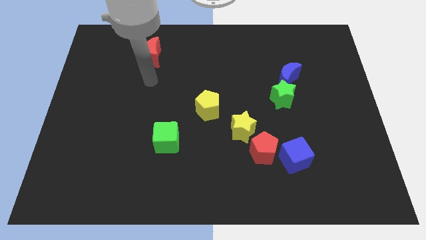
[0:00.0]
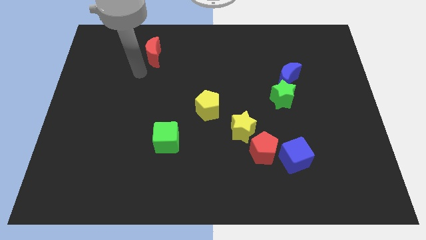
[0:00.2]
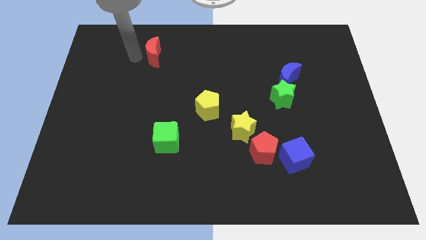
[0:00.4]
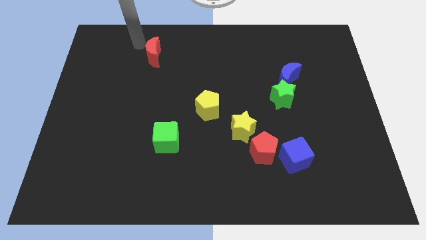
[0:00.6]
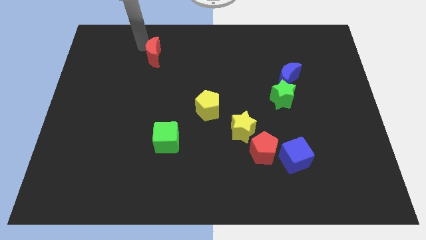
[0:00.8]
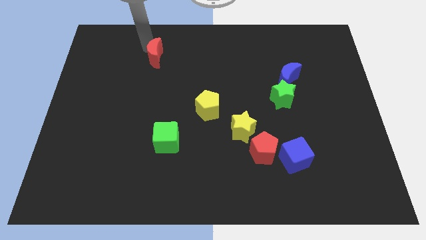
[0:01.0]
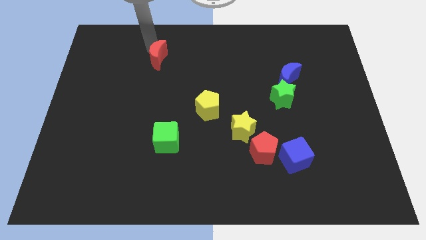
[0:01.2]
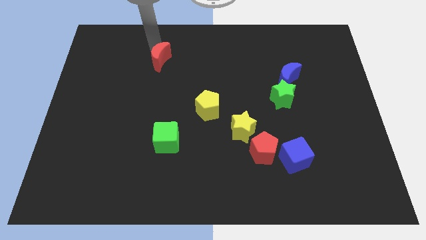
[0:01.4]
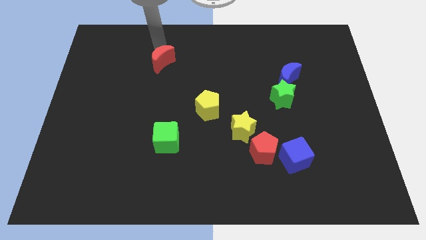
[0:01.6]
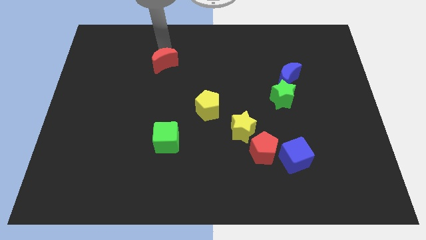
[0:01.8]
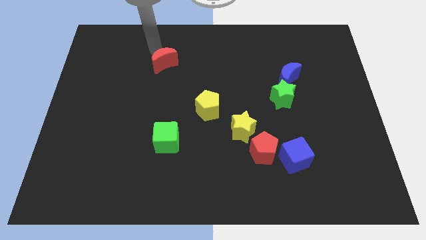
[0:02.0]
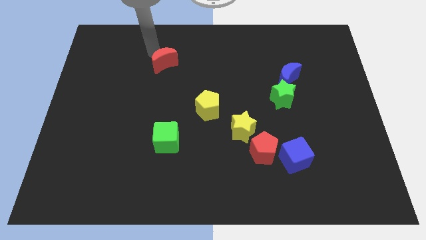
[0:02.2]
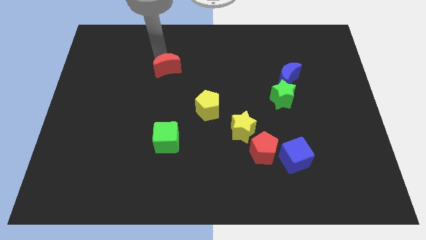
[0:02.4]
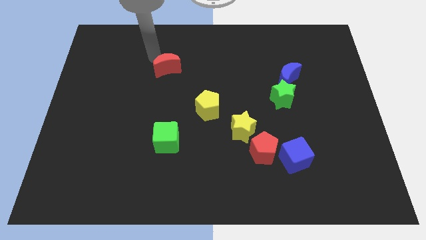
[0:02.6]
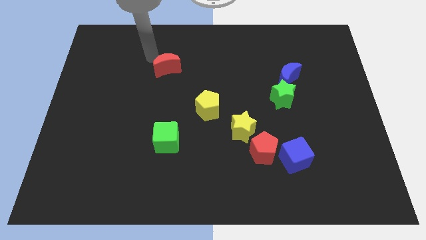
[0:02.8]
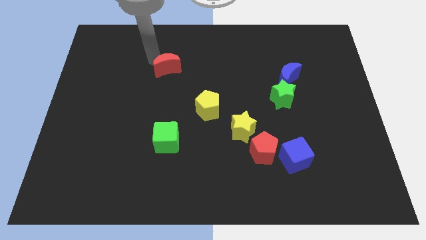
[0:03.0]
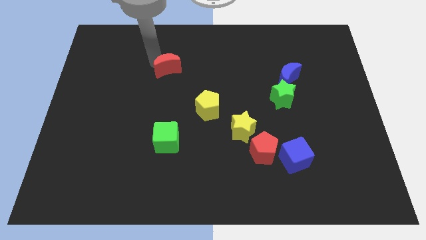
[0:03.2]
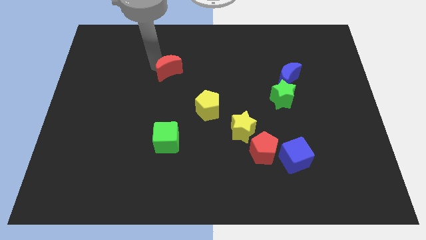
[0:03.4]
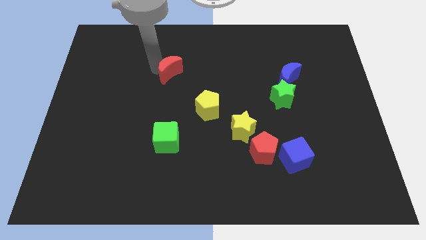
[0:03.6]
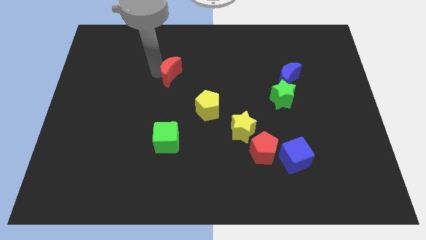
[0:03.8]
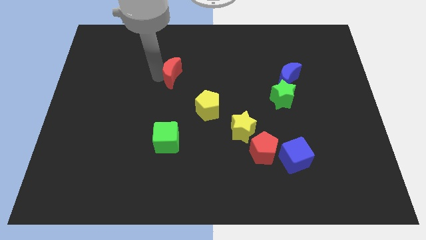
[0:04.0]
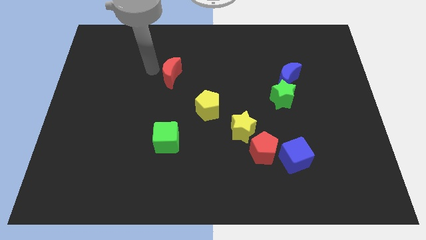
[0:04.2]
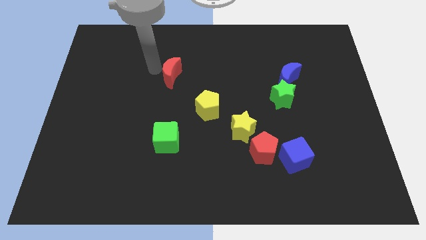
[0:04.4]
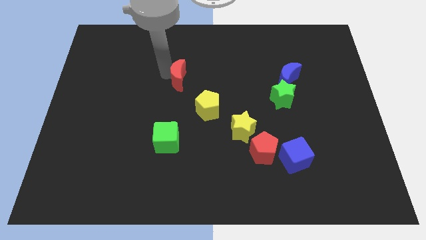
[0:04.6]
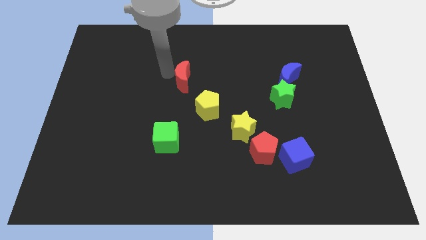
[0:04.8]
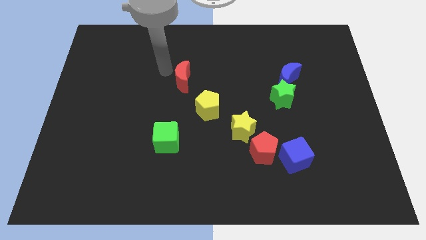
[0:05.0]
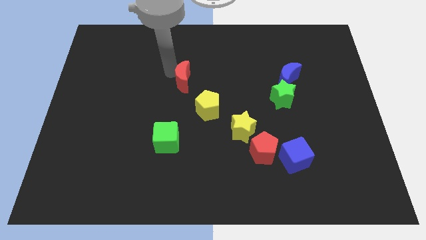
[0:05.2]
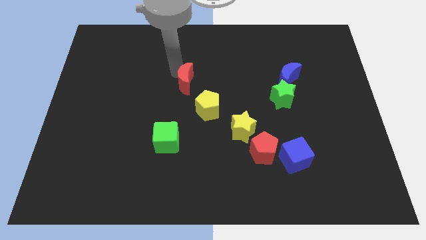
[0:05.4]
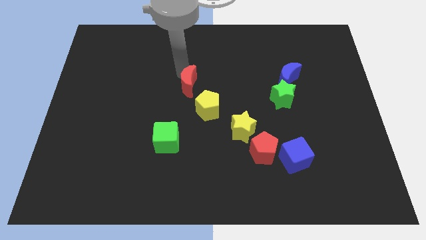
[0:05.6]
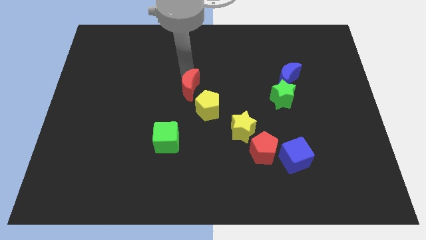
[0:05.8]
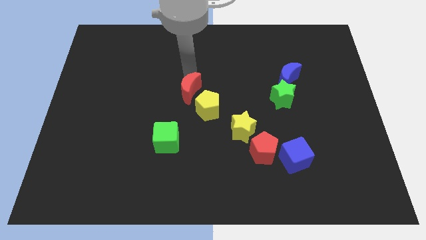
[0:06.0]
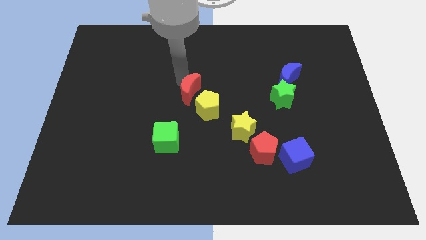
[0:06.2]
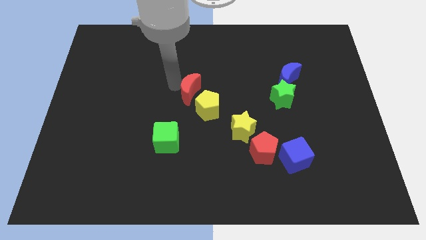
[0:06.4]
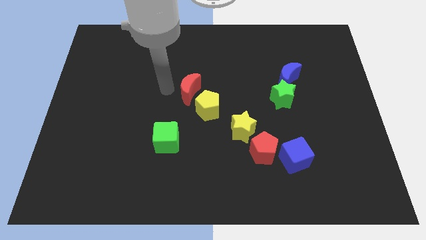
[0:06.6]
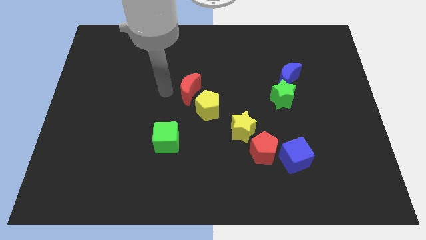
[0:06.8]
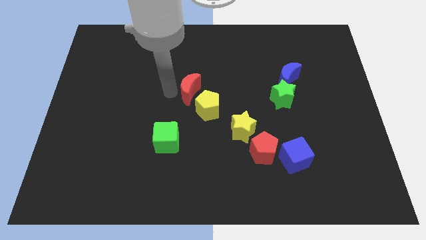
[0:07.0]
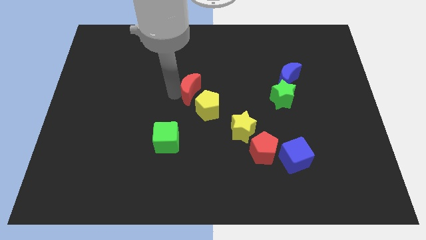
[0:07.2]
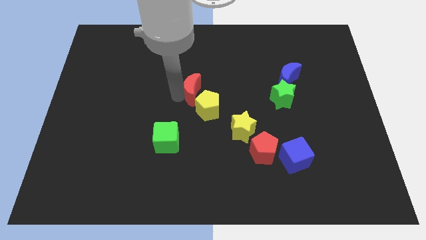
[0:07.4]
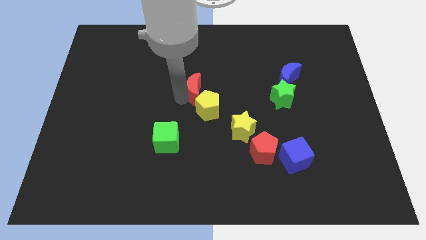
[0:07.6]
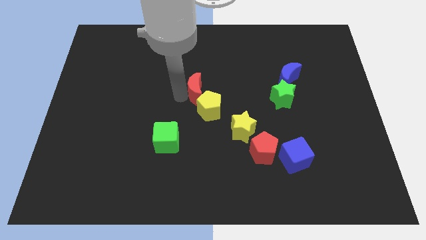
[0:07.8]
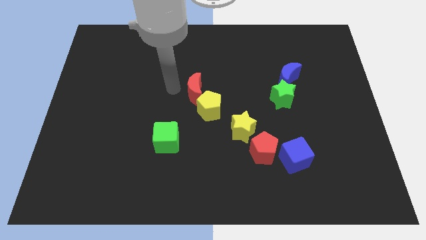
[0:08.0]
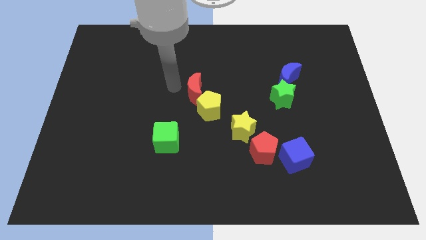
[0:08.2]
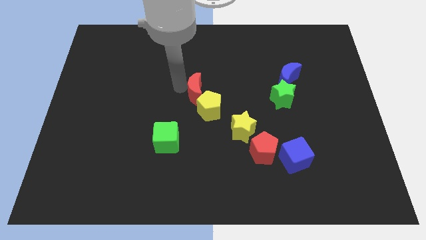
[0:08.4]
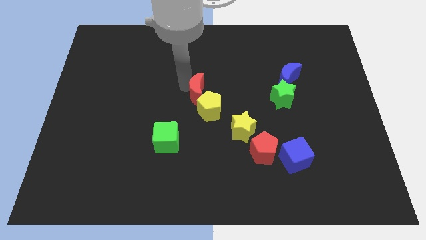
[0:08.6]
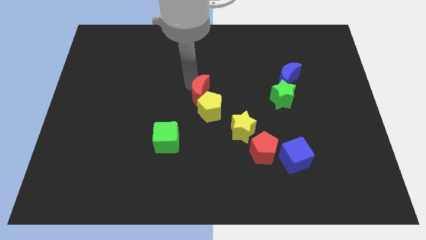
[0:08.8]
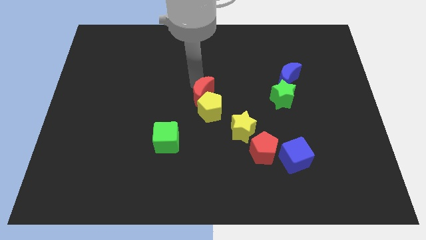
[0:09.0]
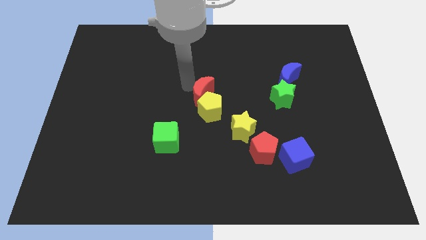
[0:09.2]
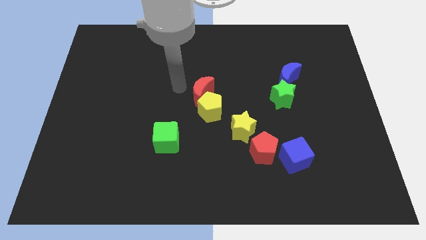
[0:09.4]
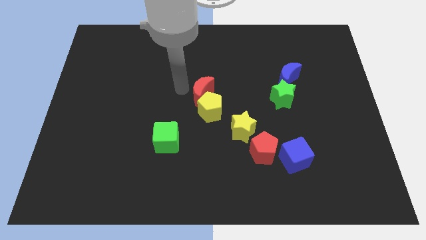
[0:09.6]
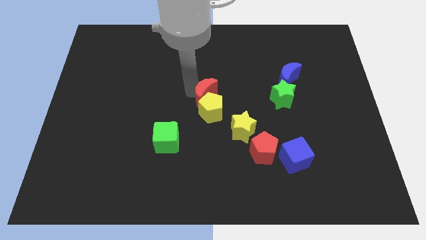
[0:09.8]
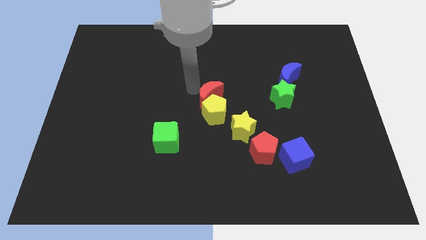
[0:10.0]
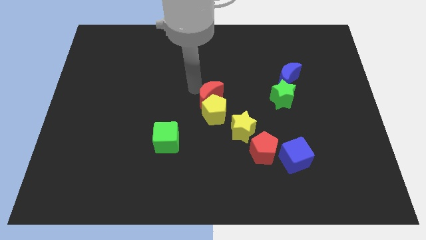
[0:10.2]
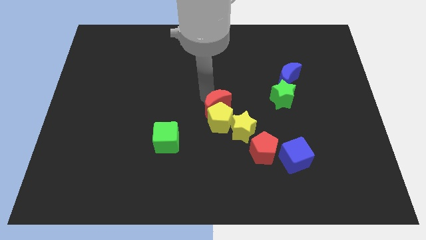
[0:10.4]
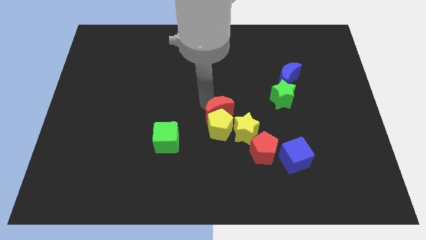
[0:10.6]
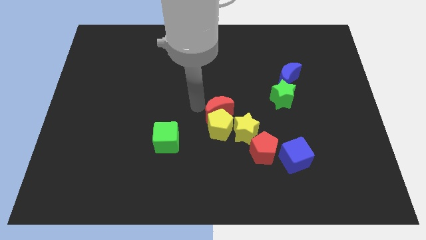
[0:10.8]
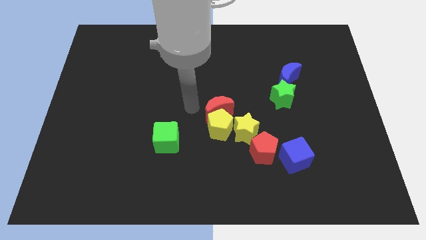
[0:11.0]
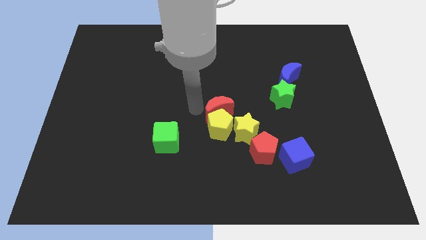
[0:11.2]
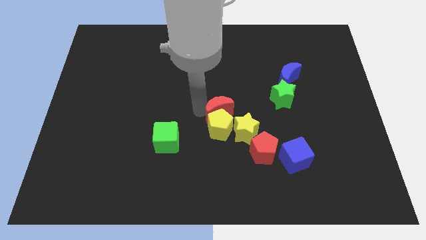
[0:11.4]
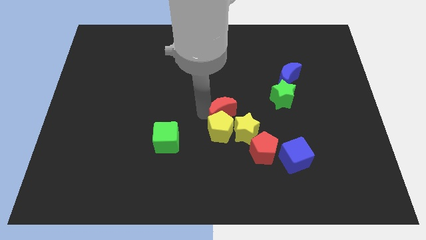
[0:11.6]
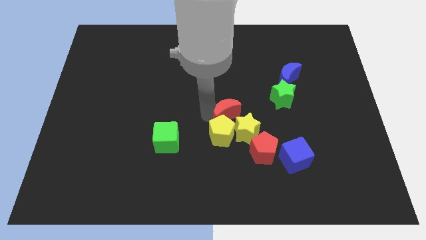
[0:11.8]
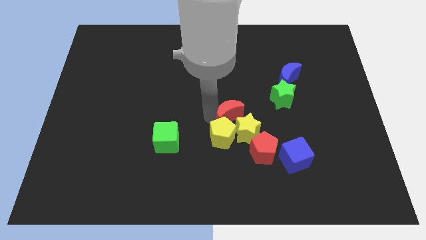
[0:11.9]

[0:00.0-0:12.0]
put the red moon towards the yellow star

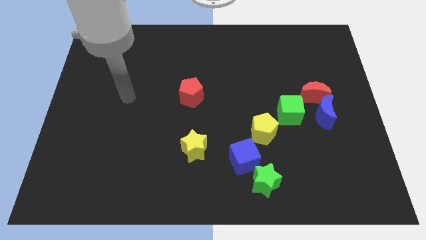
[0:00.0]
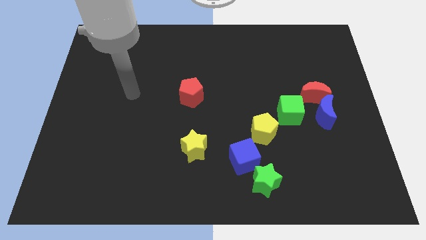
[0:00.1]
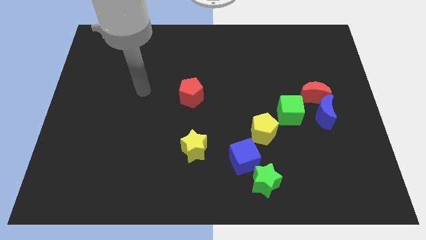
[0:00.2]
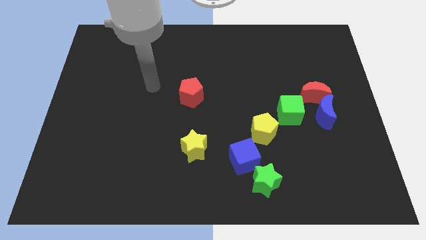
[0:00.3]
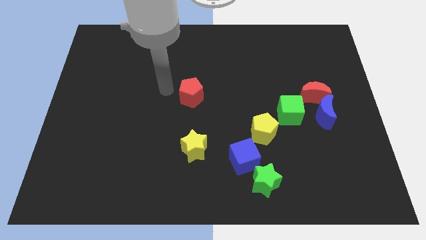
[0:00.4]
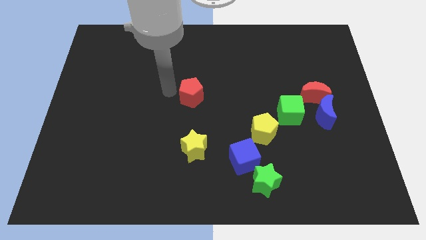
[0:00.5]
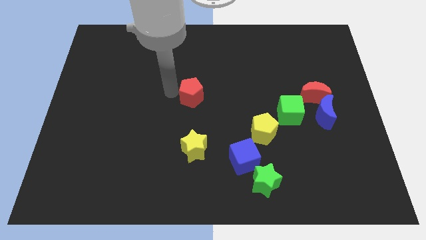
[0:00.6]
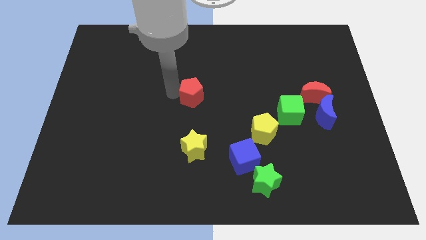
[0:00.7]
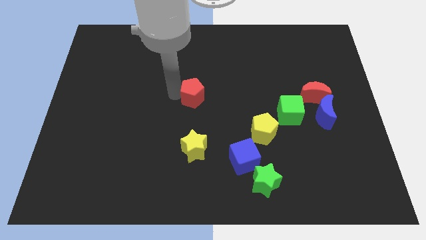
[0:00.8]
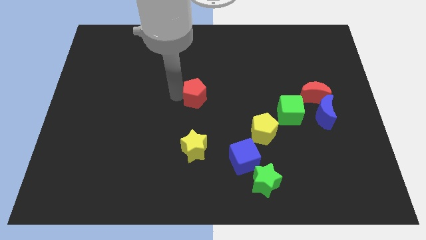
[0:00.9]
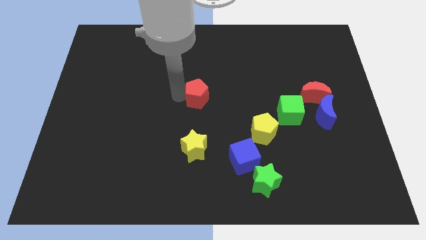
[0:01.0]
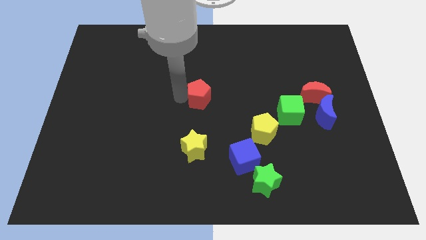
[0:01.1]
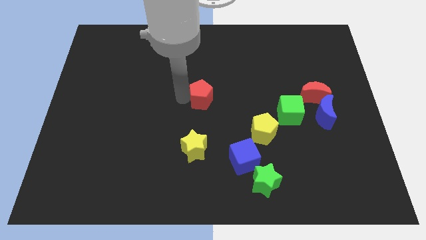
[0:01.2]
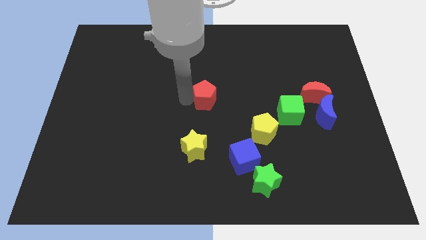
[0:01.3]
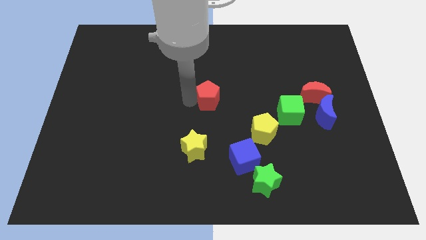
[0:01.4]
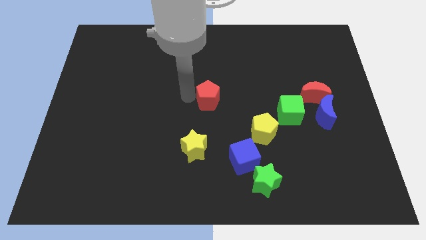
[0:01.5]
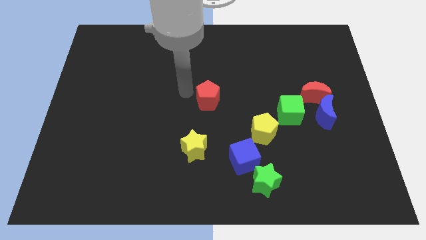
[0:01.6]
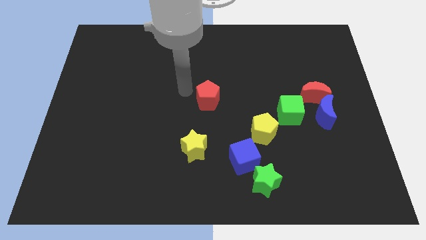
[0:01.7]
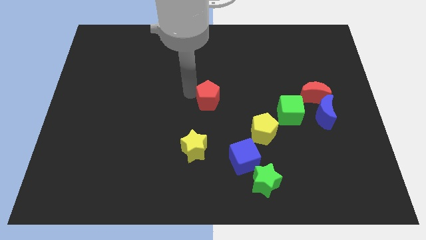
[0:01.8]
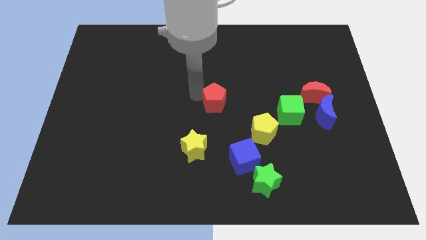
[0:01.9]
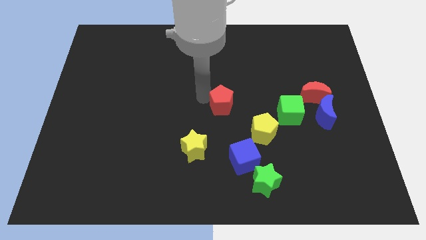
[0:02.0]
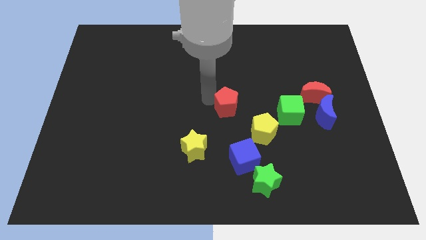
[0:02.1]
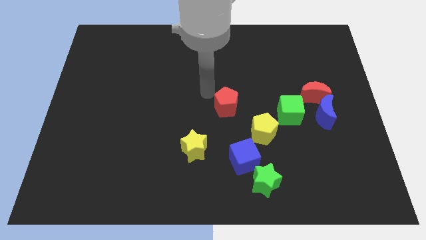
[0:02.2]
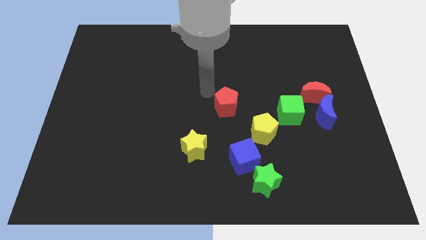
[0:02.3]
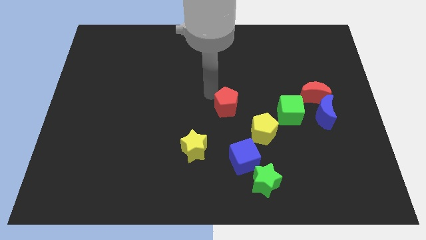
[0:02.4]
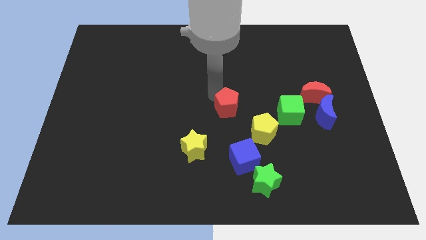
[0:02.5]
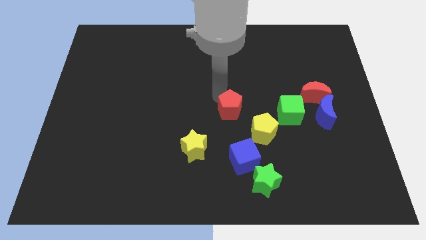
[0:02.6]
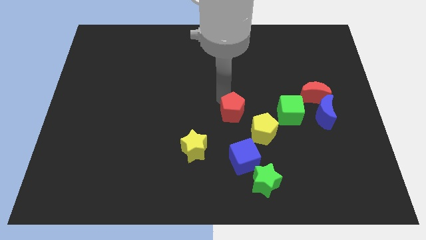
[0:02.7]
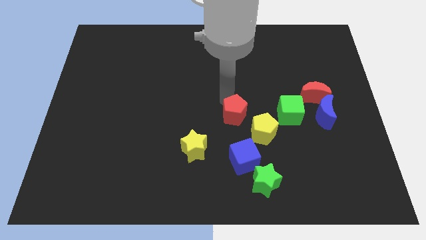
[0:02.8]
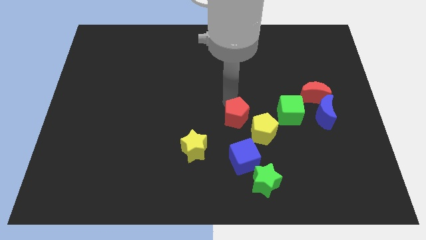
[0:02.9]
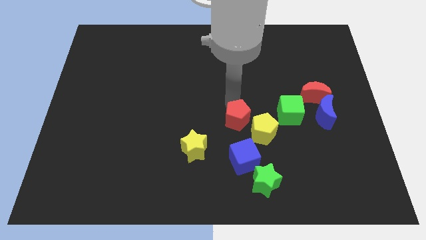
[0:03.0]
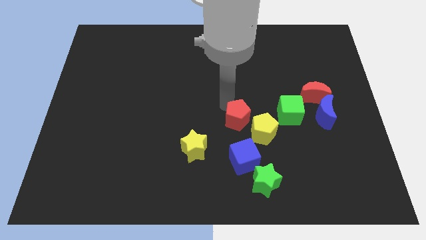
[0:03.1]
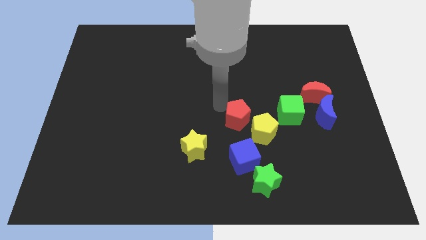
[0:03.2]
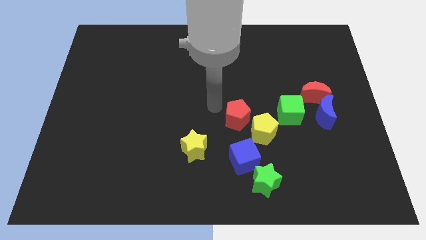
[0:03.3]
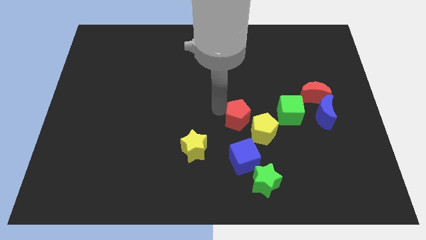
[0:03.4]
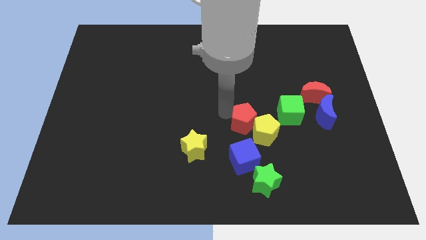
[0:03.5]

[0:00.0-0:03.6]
put the red pentagon to the yellow pentagon
